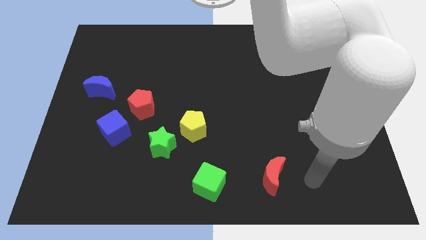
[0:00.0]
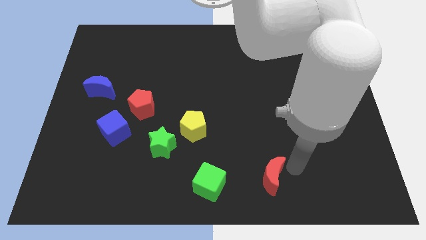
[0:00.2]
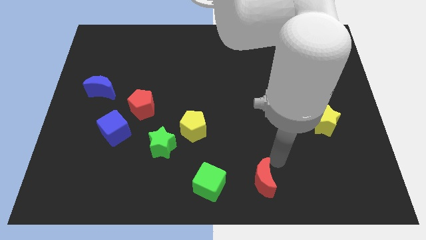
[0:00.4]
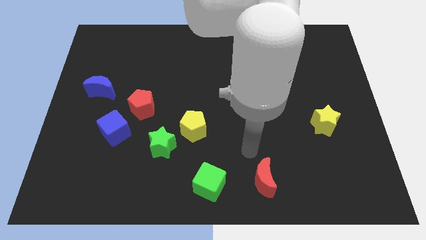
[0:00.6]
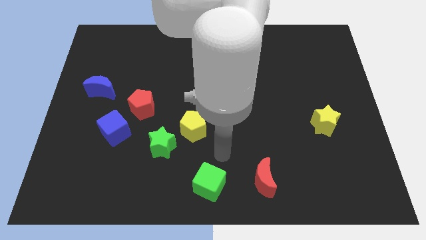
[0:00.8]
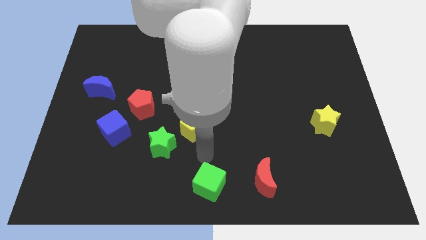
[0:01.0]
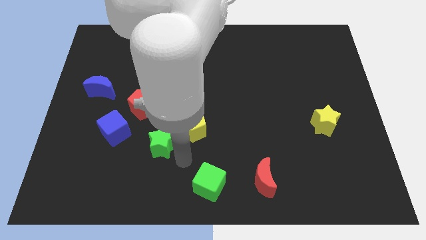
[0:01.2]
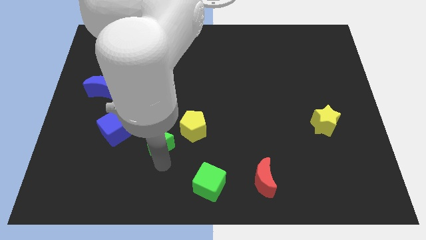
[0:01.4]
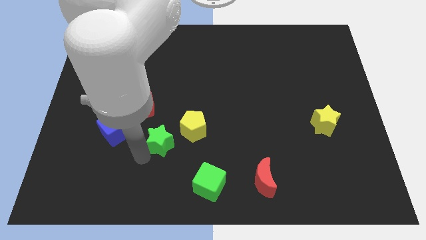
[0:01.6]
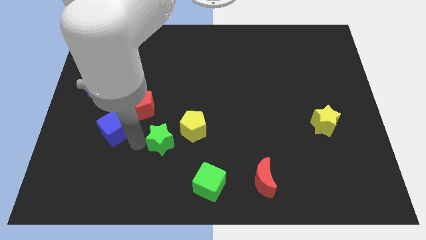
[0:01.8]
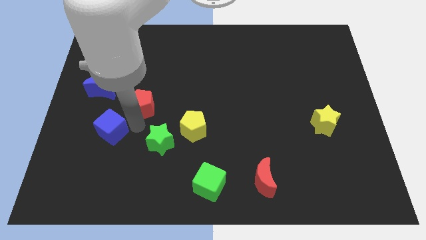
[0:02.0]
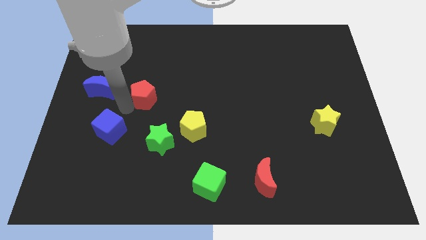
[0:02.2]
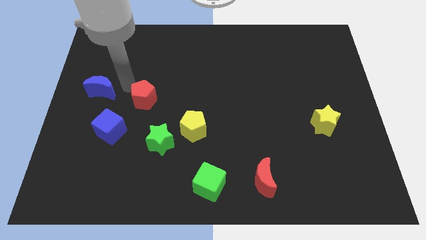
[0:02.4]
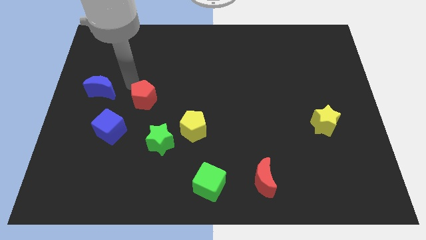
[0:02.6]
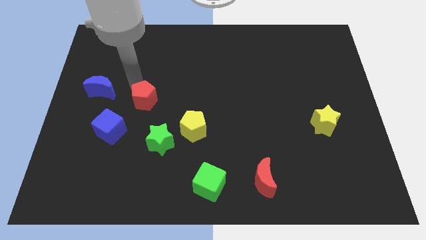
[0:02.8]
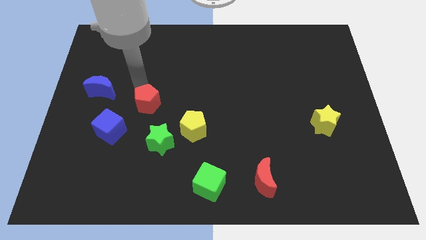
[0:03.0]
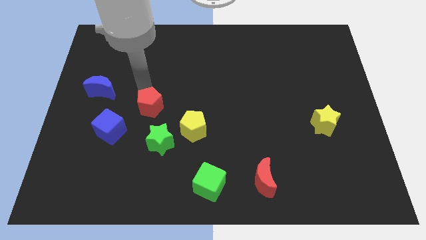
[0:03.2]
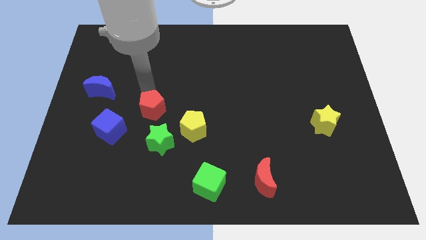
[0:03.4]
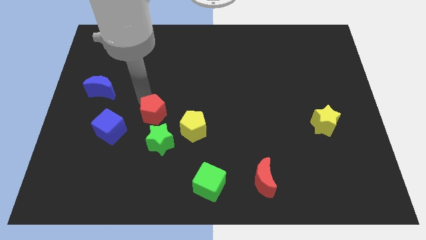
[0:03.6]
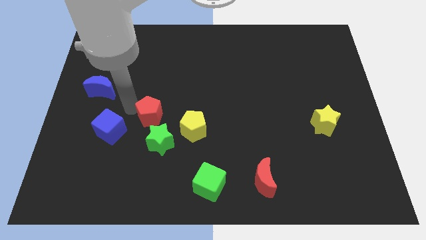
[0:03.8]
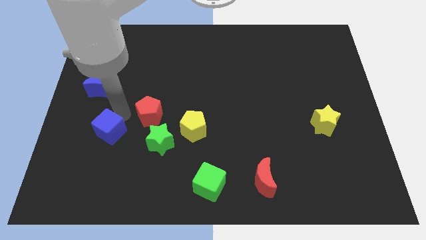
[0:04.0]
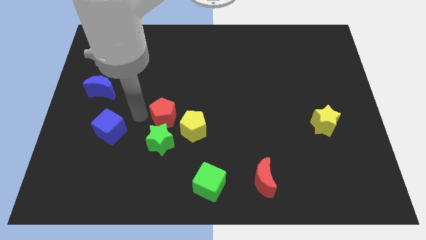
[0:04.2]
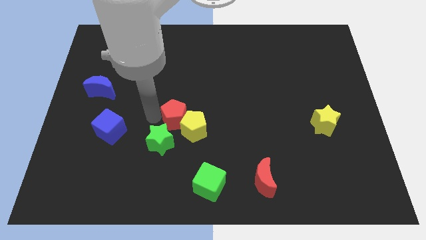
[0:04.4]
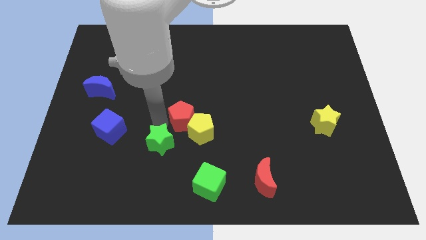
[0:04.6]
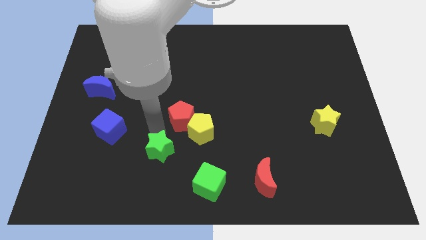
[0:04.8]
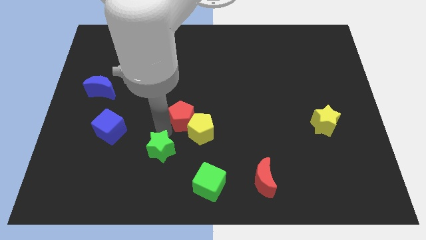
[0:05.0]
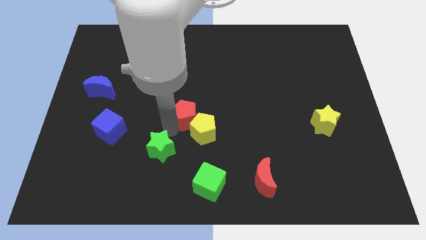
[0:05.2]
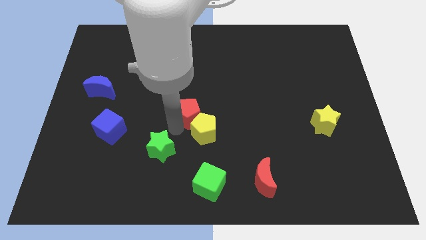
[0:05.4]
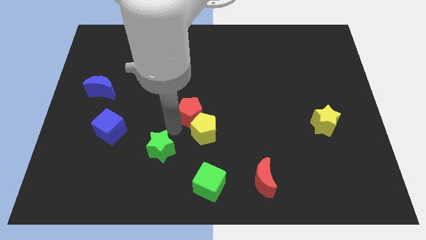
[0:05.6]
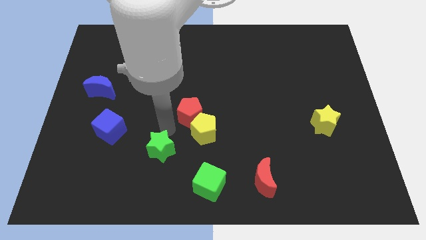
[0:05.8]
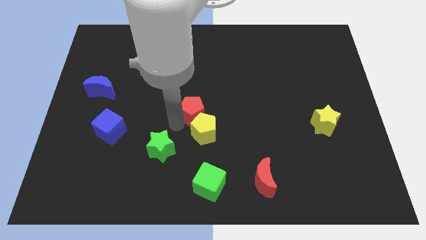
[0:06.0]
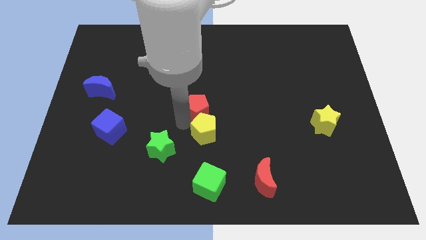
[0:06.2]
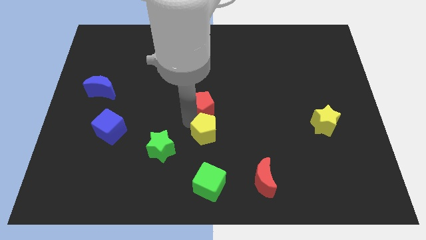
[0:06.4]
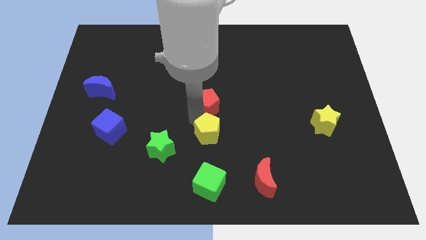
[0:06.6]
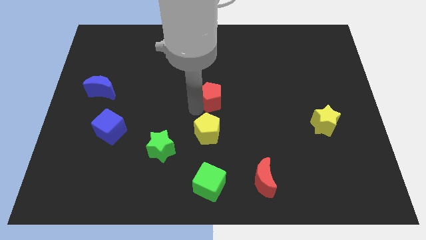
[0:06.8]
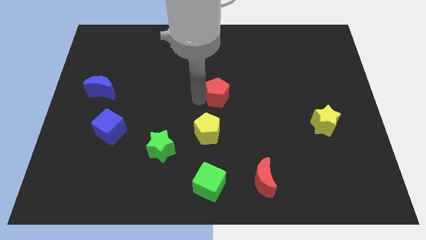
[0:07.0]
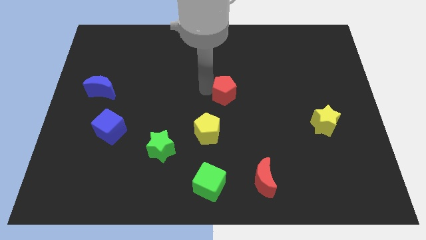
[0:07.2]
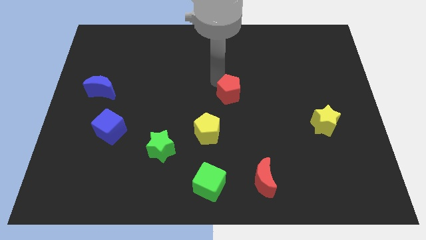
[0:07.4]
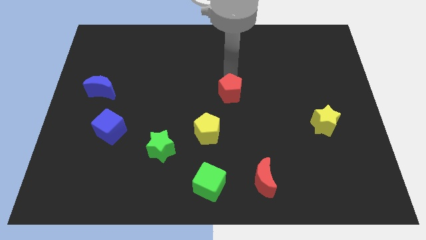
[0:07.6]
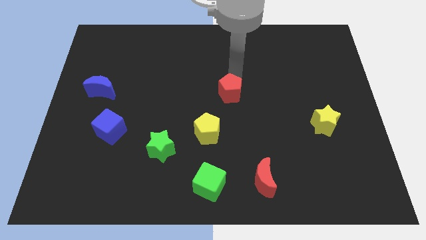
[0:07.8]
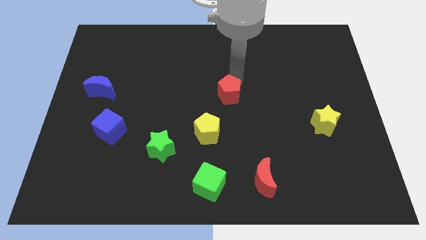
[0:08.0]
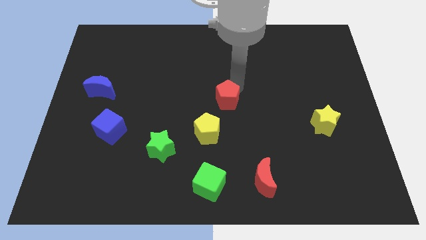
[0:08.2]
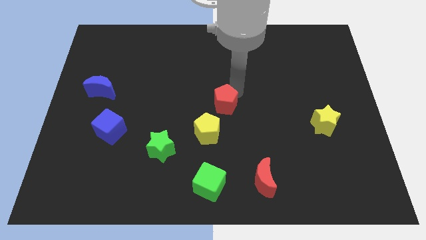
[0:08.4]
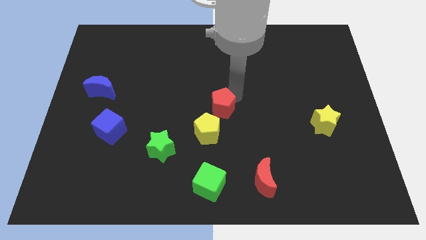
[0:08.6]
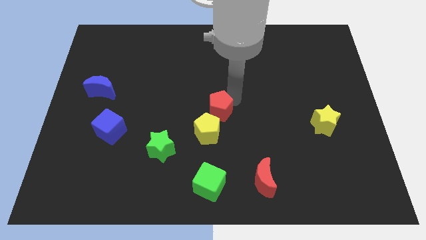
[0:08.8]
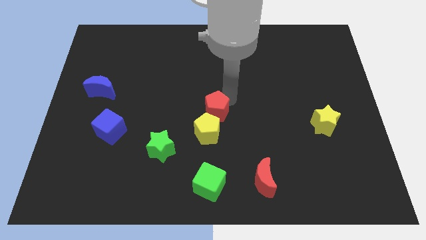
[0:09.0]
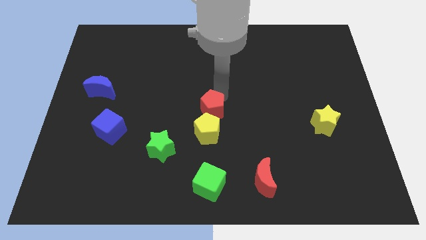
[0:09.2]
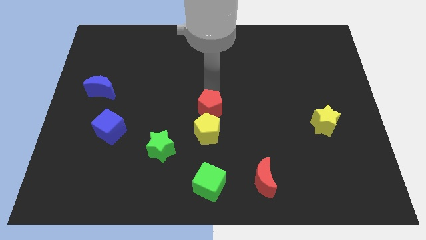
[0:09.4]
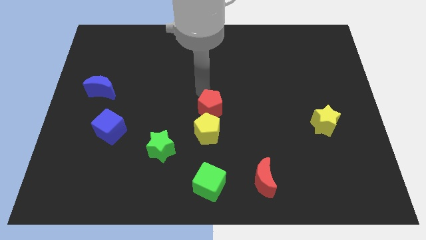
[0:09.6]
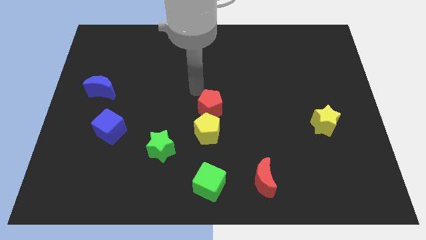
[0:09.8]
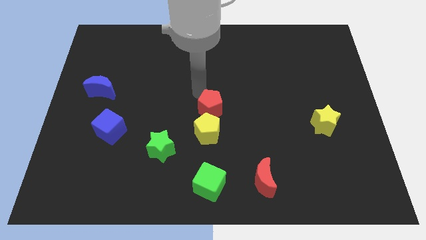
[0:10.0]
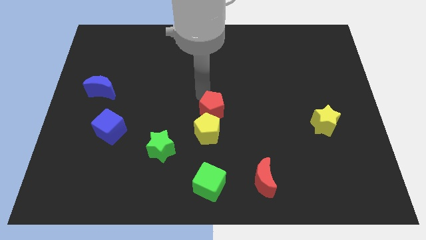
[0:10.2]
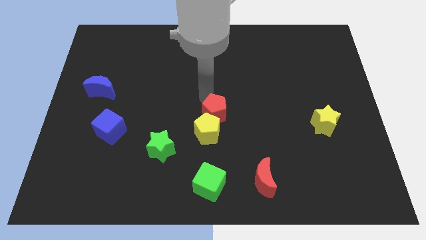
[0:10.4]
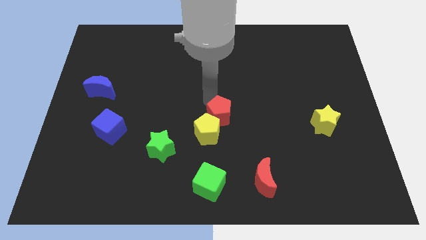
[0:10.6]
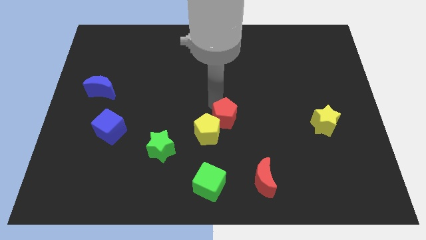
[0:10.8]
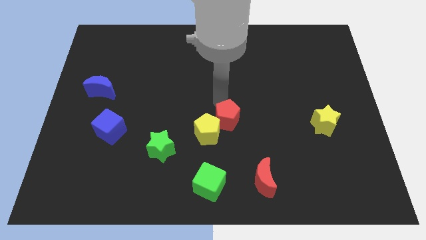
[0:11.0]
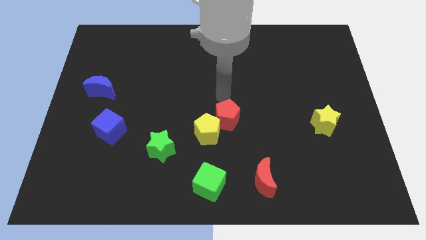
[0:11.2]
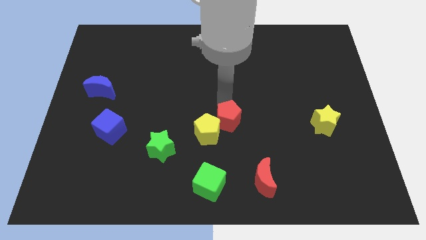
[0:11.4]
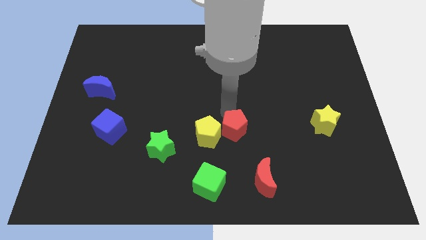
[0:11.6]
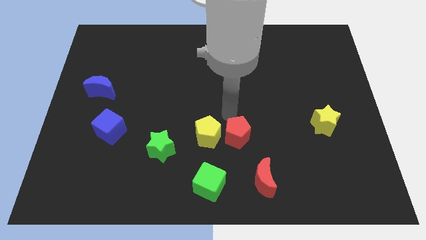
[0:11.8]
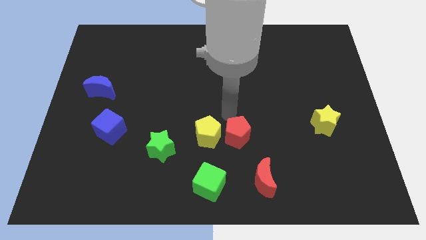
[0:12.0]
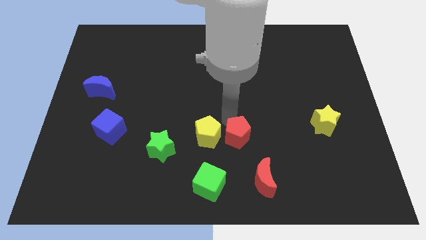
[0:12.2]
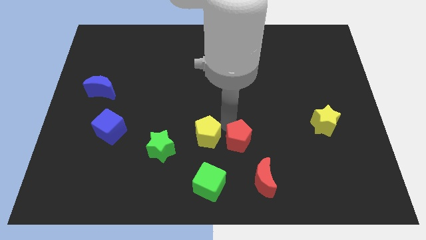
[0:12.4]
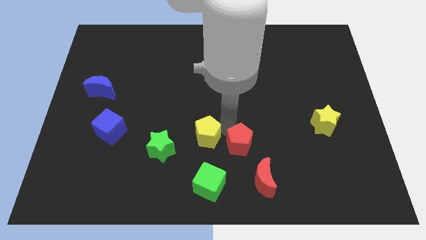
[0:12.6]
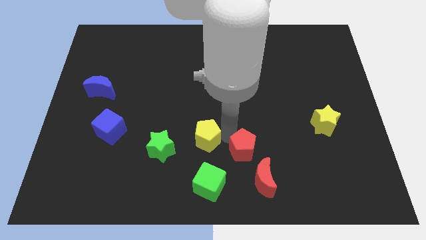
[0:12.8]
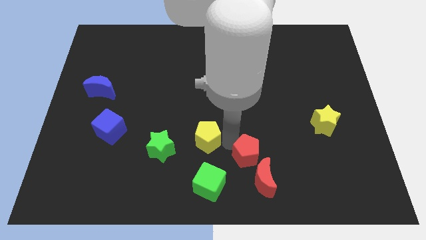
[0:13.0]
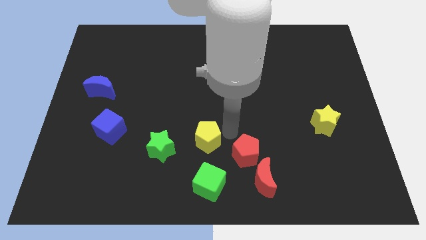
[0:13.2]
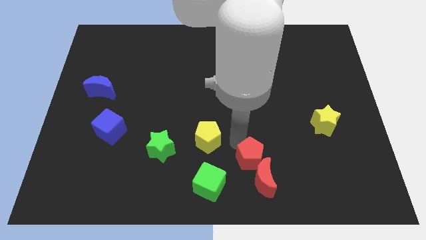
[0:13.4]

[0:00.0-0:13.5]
push the red pentagon towards the red moon
